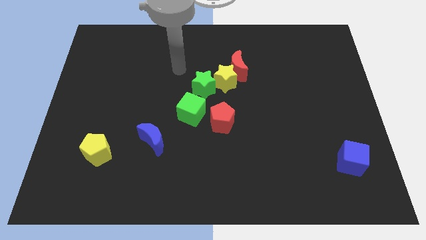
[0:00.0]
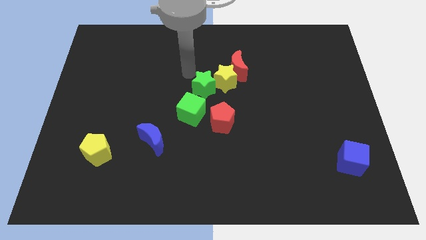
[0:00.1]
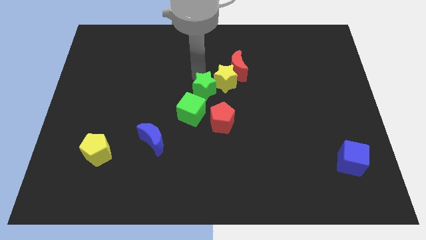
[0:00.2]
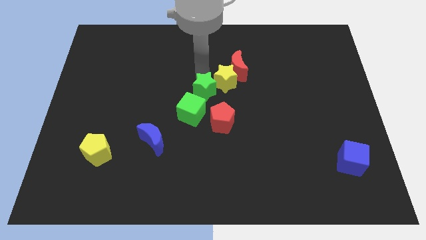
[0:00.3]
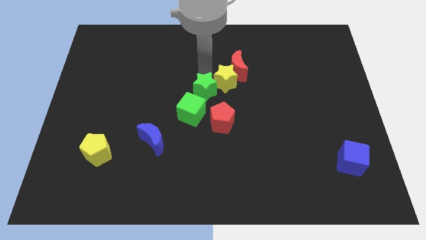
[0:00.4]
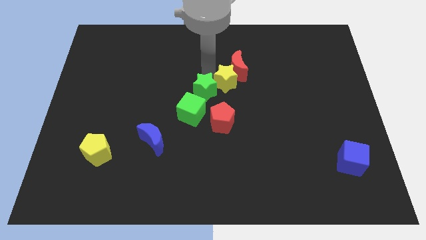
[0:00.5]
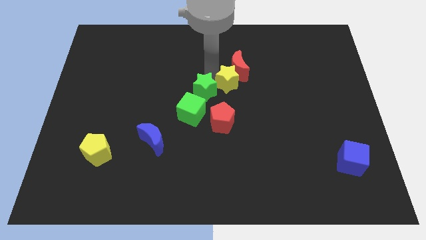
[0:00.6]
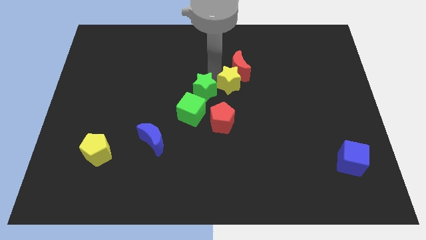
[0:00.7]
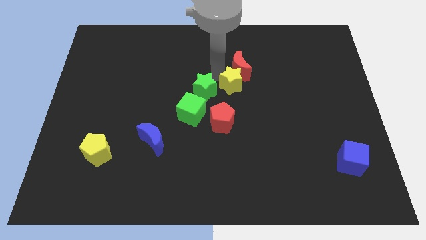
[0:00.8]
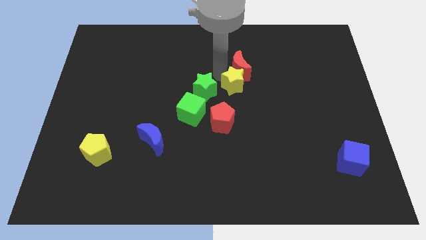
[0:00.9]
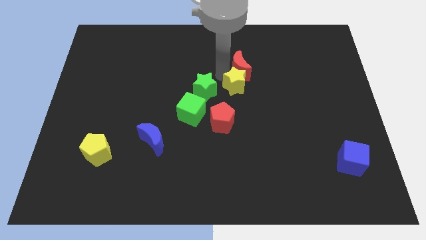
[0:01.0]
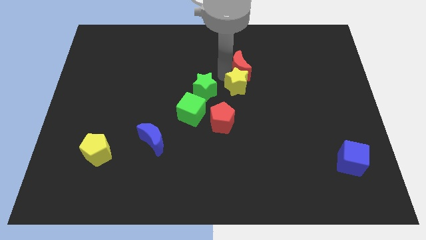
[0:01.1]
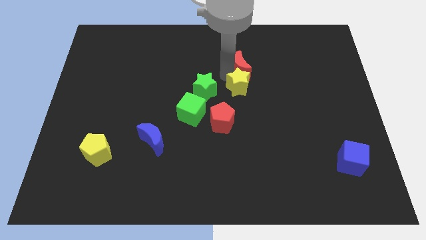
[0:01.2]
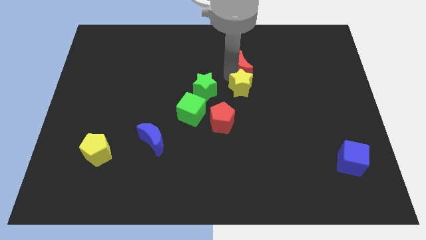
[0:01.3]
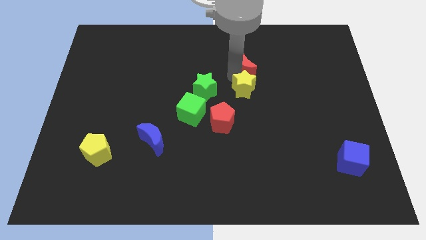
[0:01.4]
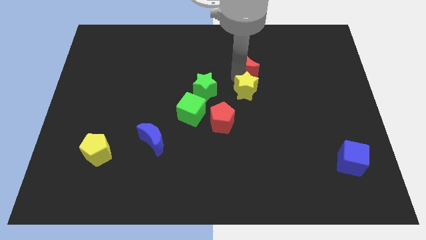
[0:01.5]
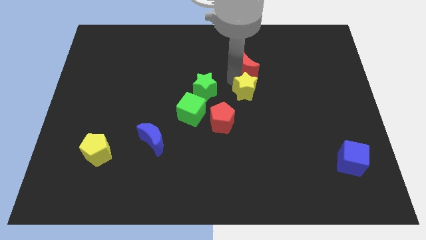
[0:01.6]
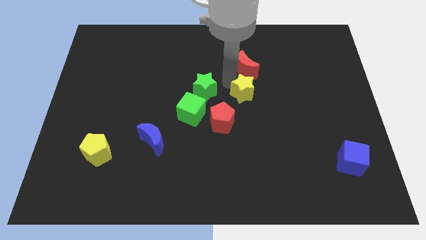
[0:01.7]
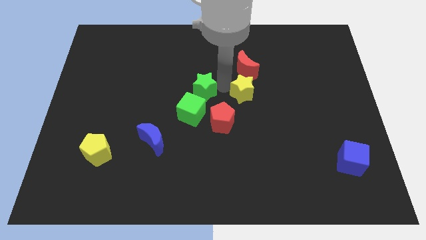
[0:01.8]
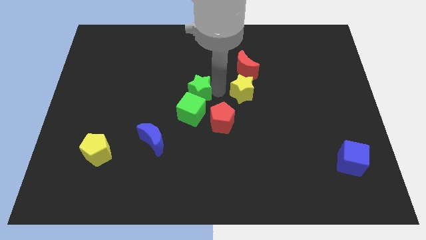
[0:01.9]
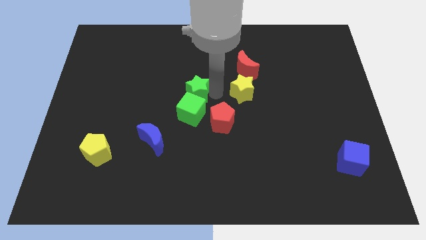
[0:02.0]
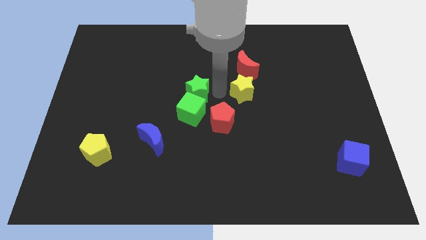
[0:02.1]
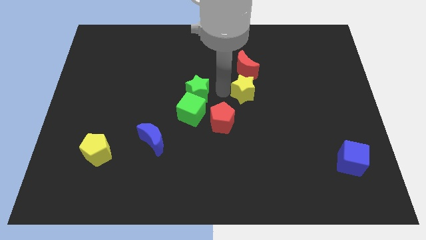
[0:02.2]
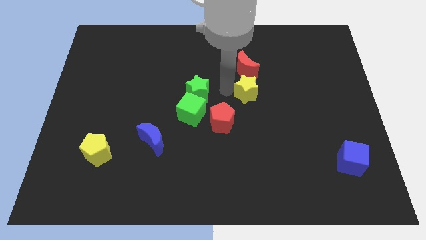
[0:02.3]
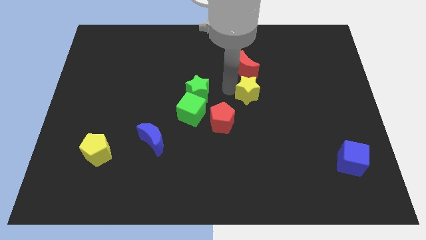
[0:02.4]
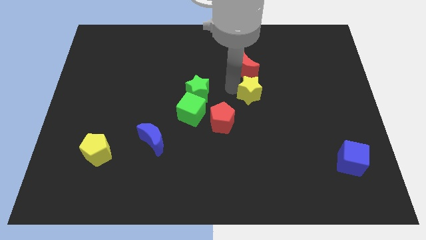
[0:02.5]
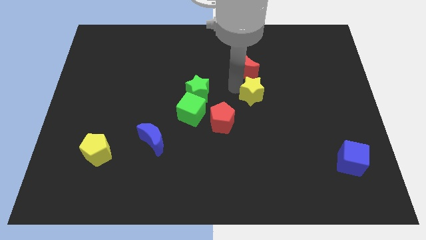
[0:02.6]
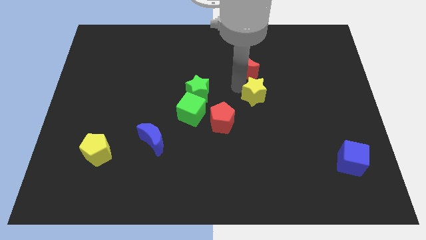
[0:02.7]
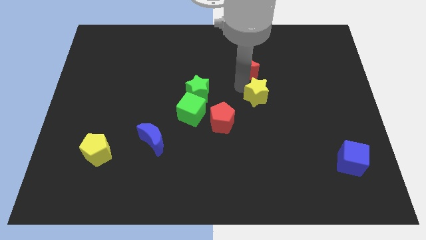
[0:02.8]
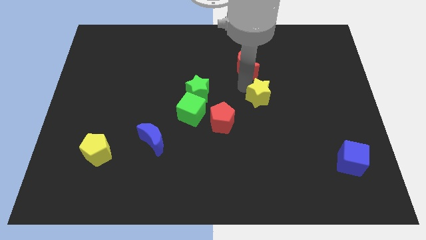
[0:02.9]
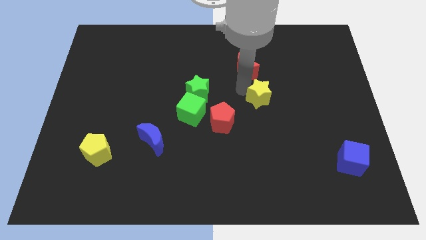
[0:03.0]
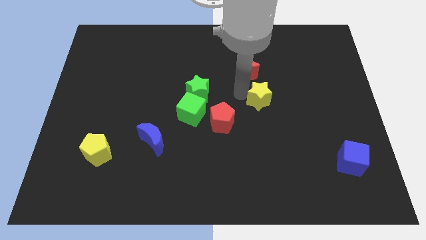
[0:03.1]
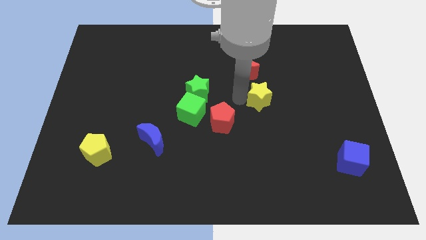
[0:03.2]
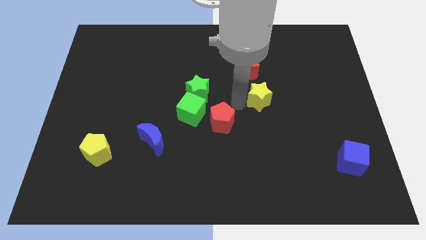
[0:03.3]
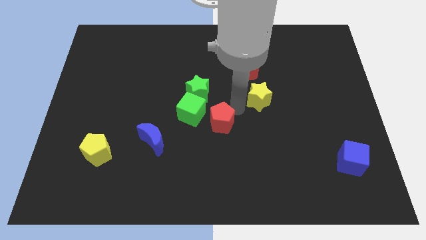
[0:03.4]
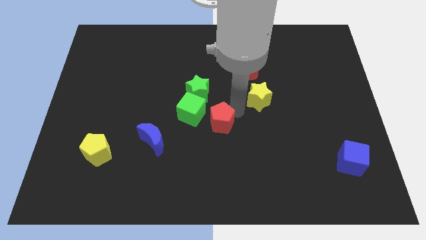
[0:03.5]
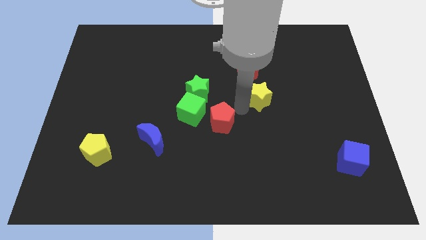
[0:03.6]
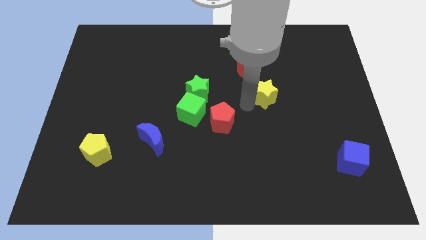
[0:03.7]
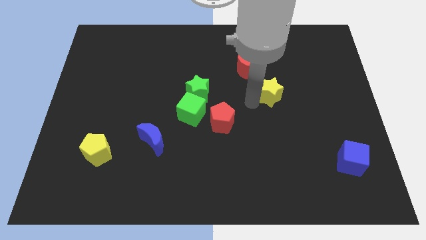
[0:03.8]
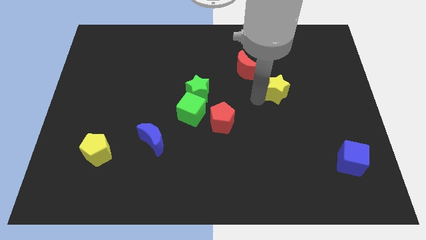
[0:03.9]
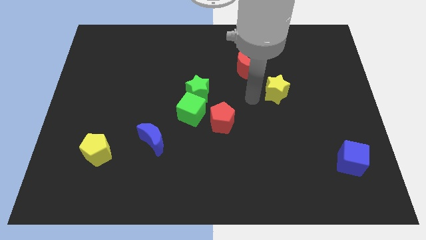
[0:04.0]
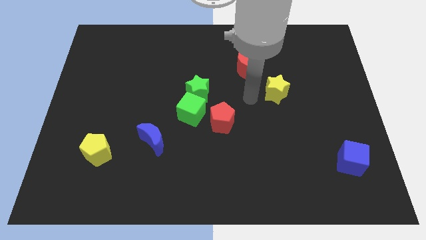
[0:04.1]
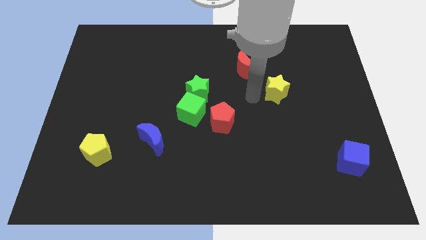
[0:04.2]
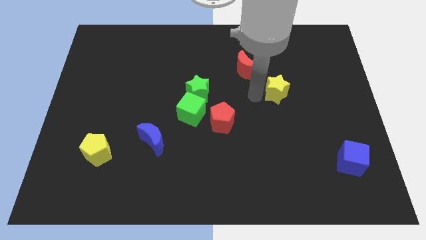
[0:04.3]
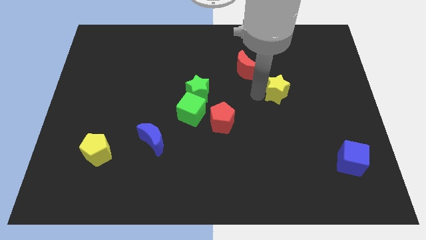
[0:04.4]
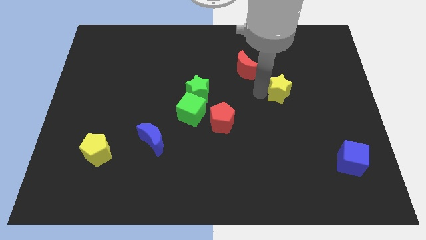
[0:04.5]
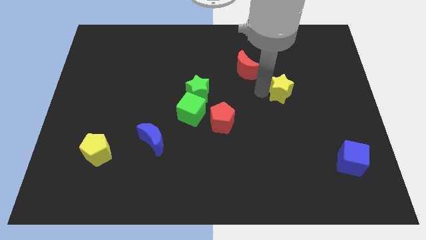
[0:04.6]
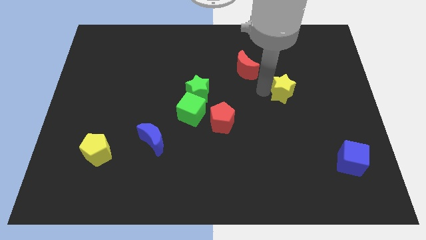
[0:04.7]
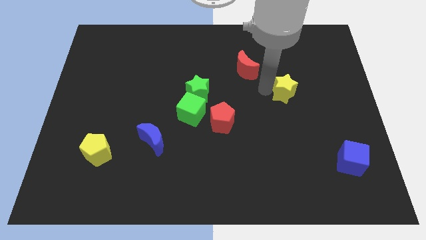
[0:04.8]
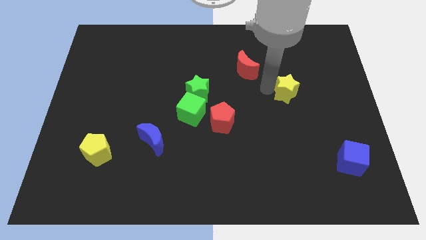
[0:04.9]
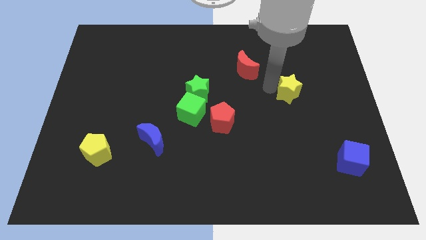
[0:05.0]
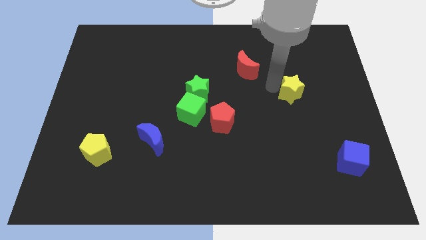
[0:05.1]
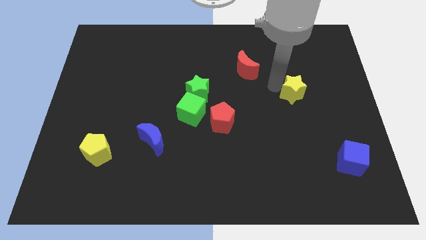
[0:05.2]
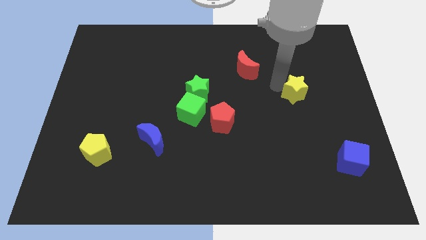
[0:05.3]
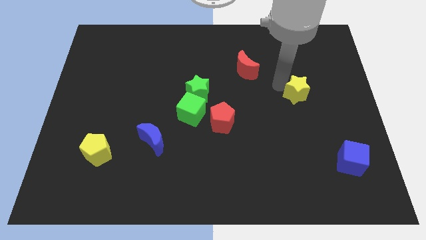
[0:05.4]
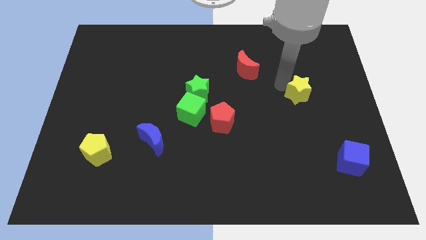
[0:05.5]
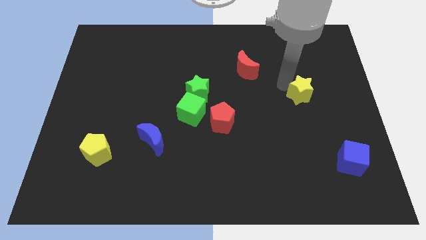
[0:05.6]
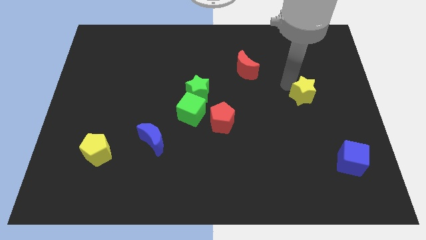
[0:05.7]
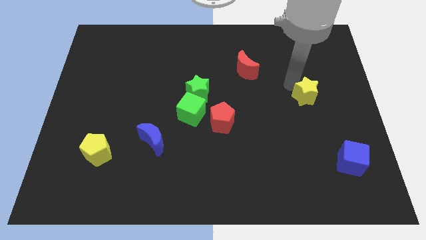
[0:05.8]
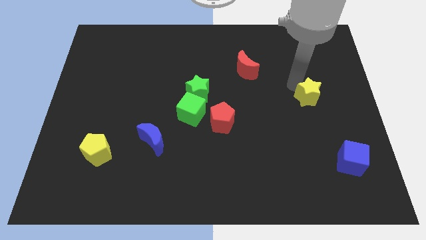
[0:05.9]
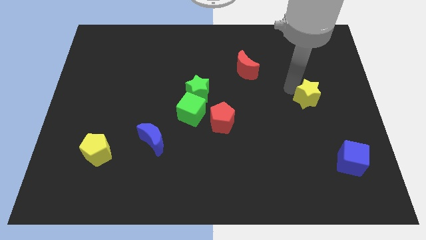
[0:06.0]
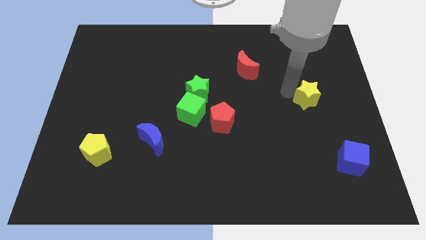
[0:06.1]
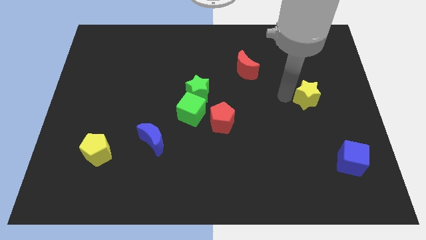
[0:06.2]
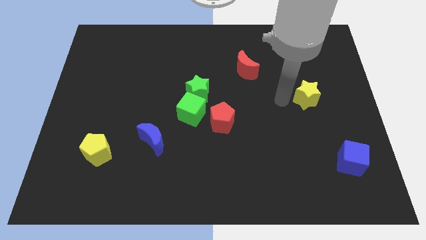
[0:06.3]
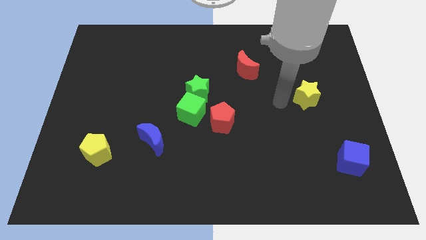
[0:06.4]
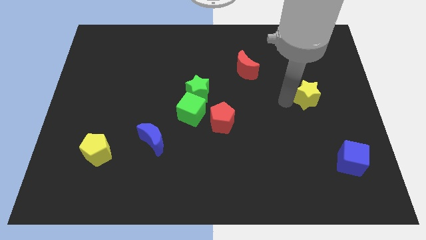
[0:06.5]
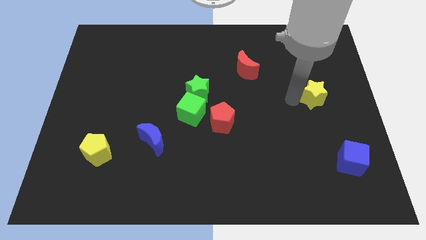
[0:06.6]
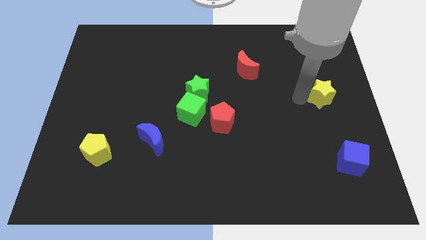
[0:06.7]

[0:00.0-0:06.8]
move the yellow star to the center right
